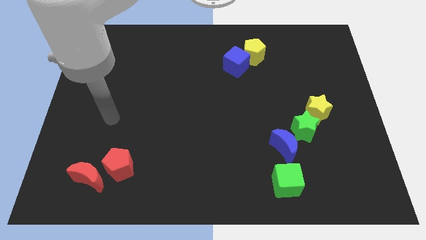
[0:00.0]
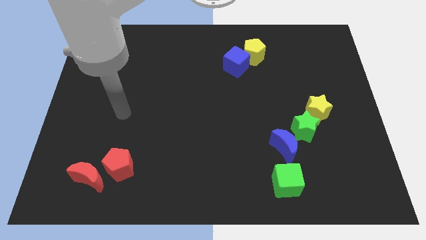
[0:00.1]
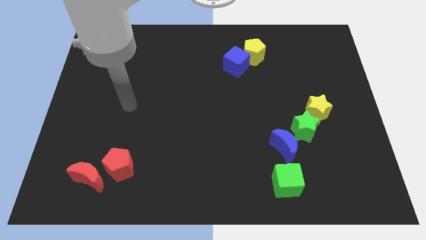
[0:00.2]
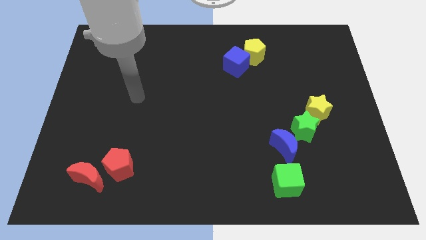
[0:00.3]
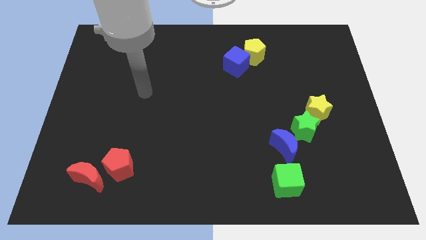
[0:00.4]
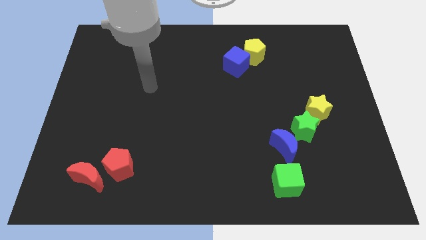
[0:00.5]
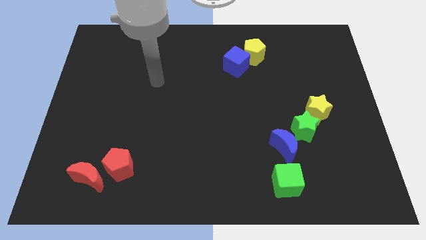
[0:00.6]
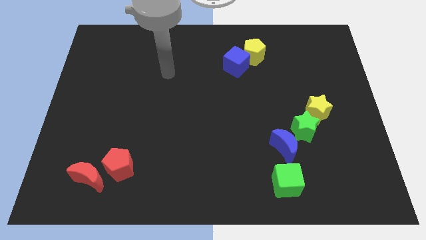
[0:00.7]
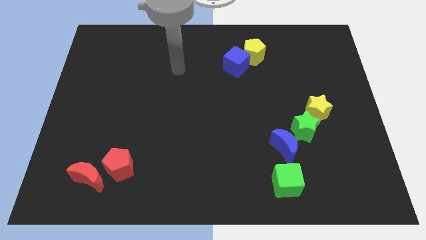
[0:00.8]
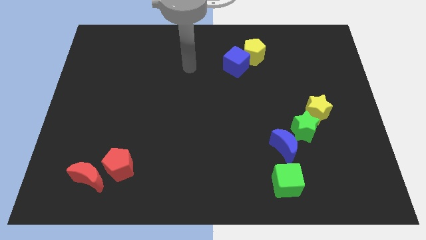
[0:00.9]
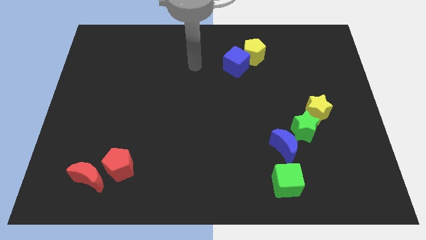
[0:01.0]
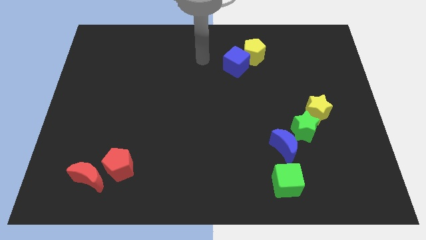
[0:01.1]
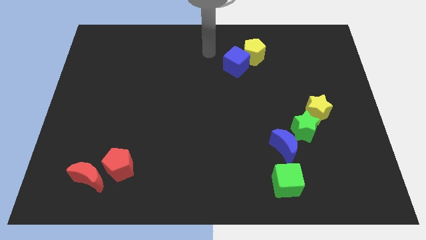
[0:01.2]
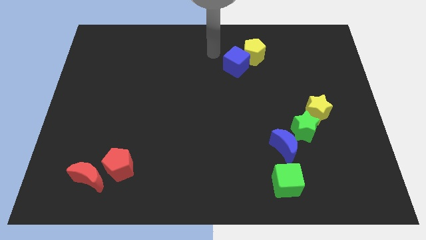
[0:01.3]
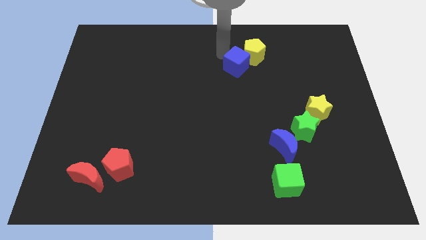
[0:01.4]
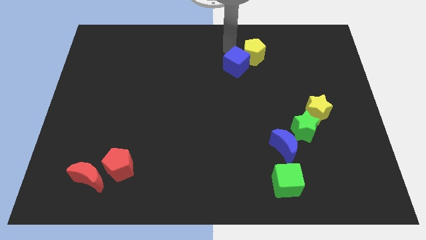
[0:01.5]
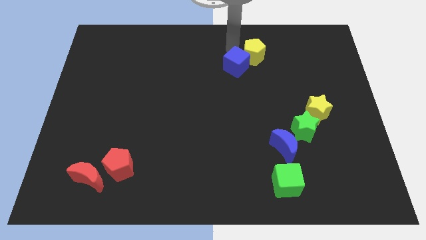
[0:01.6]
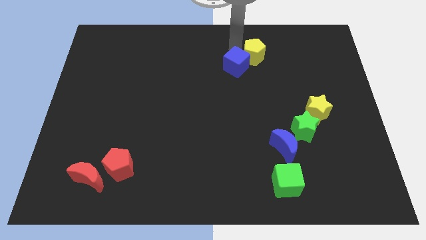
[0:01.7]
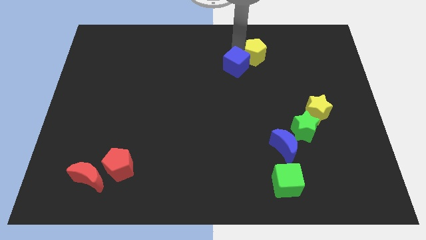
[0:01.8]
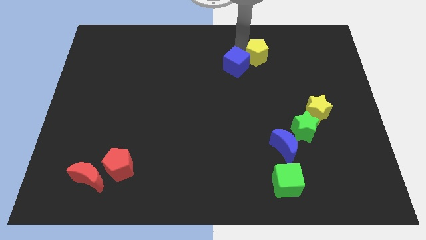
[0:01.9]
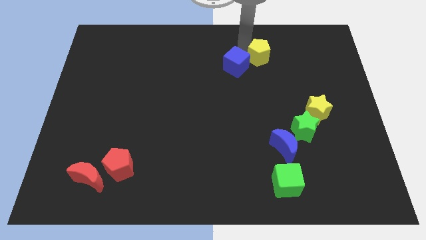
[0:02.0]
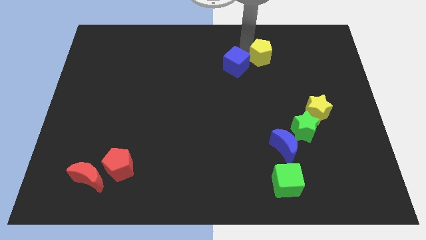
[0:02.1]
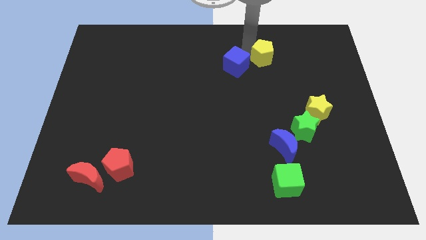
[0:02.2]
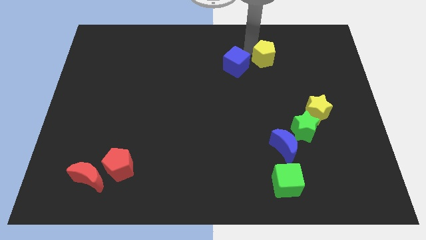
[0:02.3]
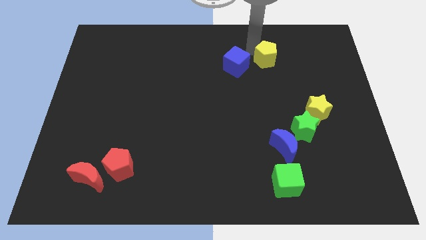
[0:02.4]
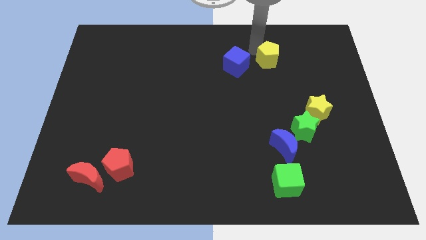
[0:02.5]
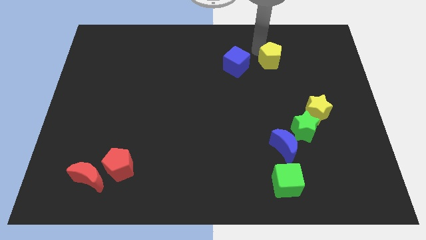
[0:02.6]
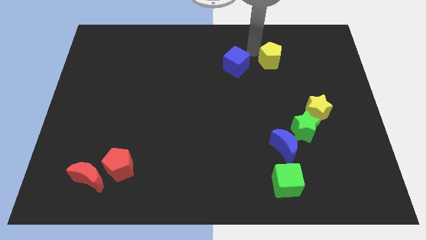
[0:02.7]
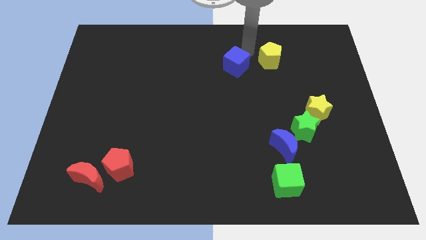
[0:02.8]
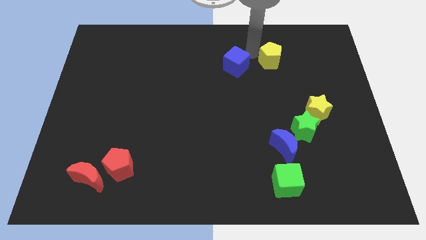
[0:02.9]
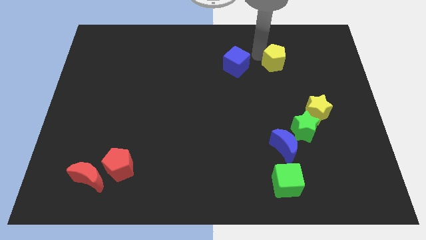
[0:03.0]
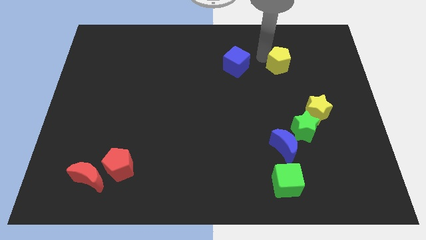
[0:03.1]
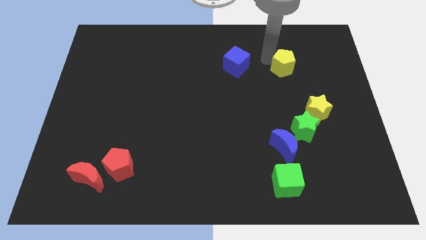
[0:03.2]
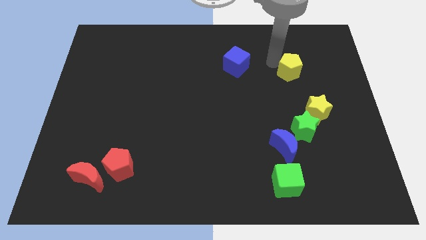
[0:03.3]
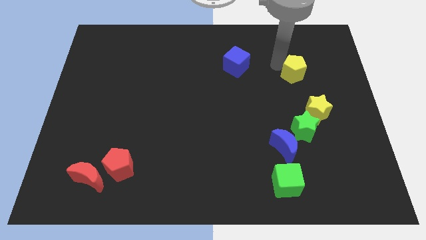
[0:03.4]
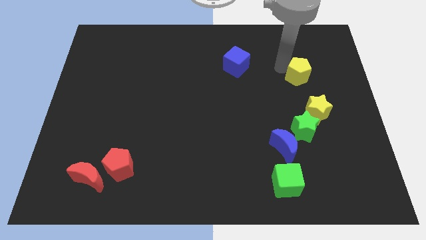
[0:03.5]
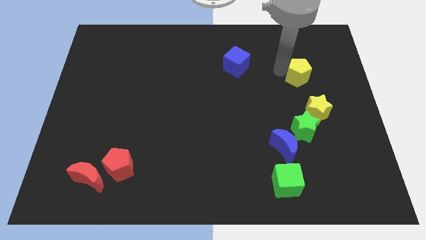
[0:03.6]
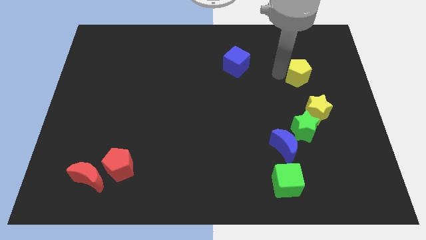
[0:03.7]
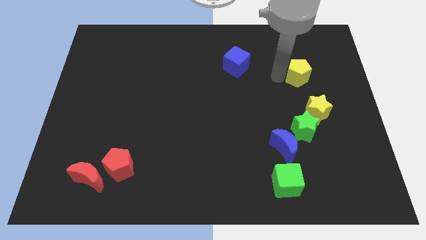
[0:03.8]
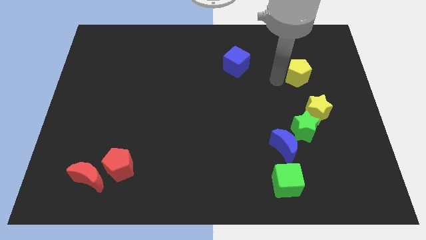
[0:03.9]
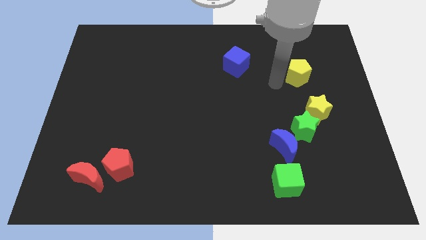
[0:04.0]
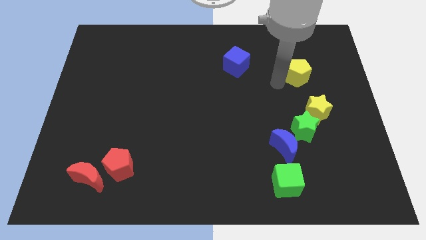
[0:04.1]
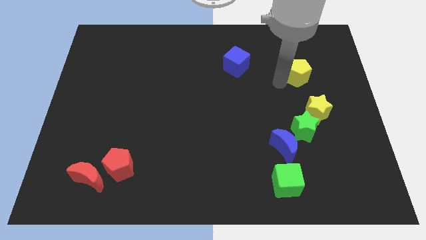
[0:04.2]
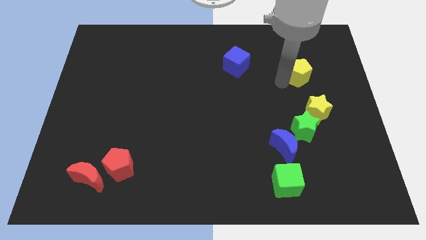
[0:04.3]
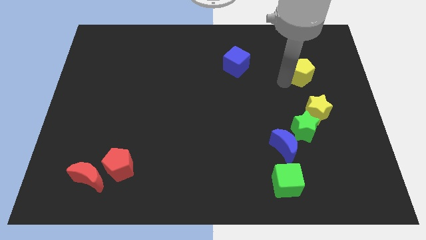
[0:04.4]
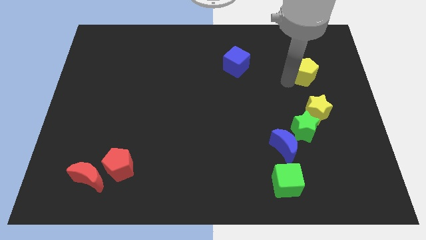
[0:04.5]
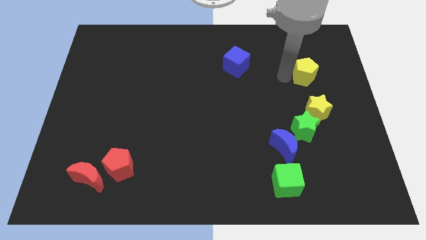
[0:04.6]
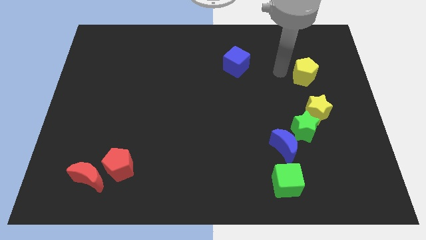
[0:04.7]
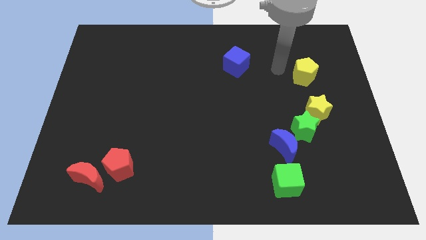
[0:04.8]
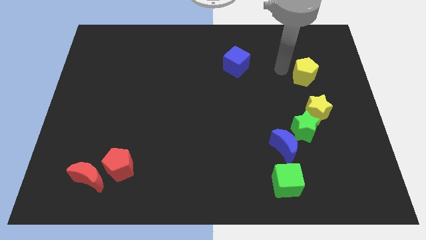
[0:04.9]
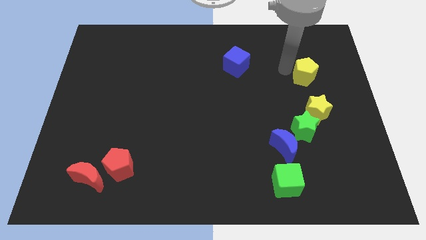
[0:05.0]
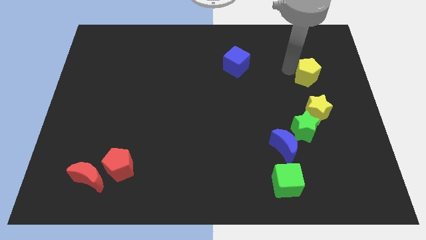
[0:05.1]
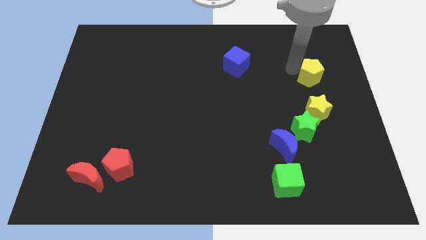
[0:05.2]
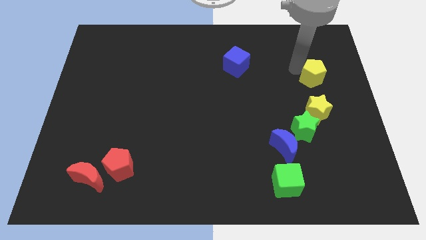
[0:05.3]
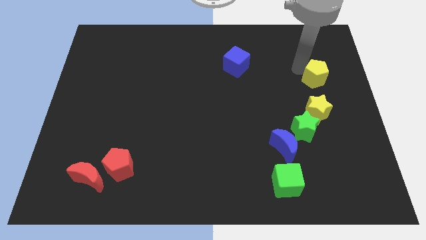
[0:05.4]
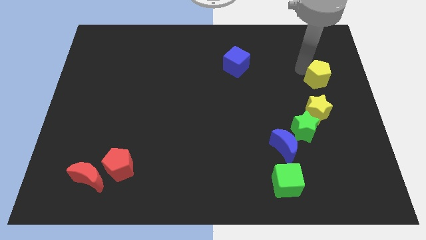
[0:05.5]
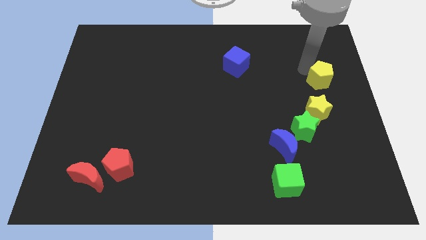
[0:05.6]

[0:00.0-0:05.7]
put the yellow pentagon to the right side
